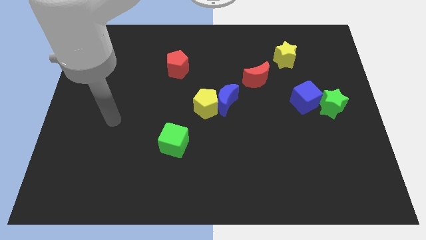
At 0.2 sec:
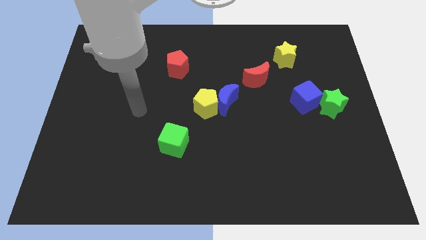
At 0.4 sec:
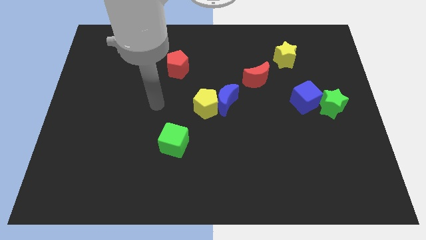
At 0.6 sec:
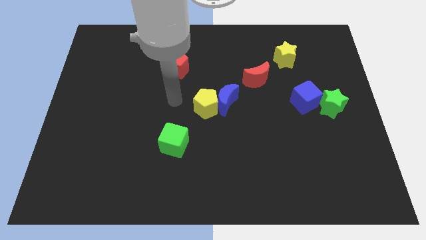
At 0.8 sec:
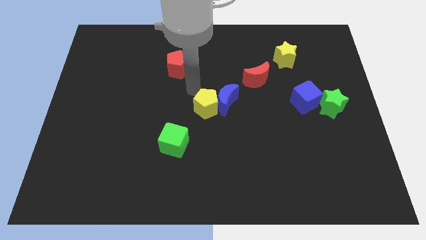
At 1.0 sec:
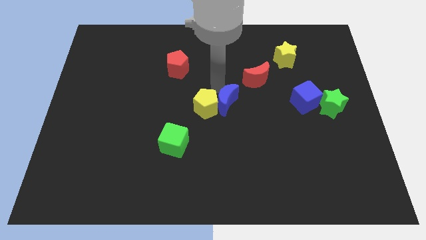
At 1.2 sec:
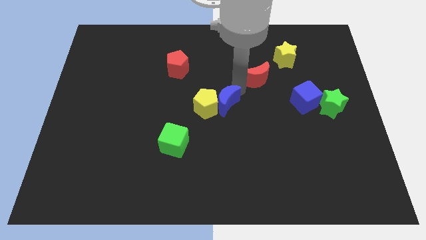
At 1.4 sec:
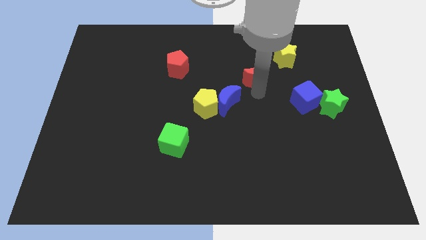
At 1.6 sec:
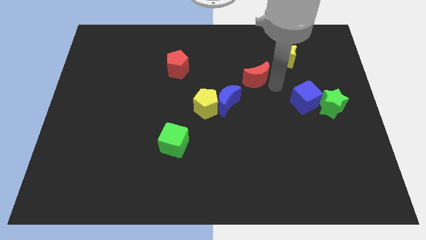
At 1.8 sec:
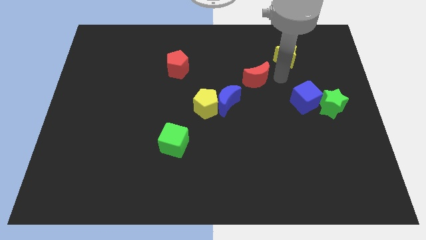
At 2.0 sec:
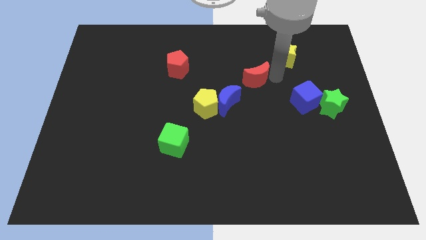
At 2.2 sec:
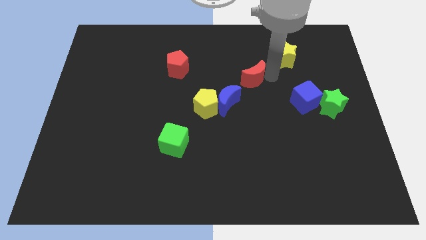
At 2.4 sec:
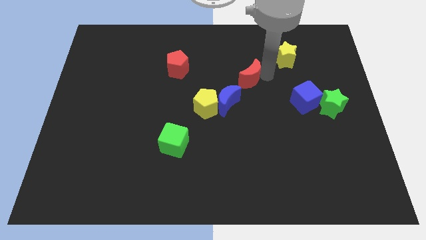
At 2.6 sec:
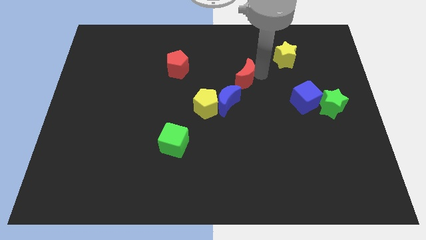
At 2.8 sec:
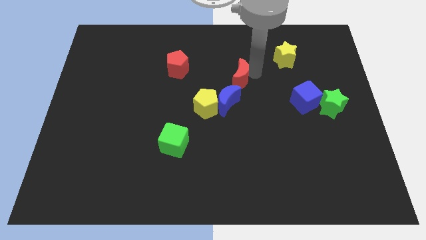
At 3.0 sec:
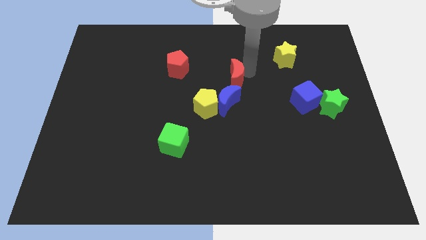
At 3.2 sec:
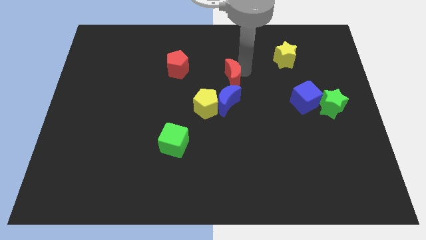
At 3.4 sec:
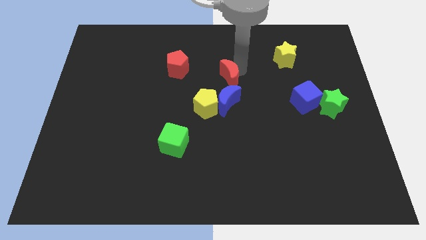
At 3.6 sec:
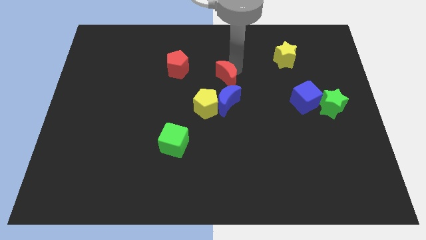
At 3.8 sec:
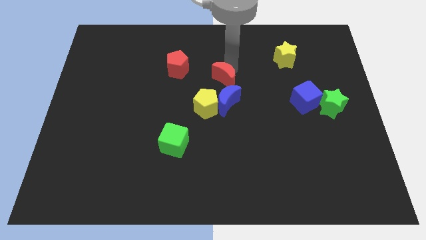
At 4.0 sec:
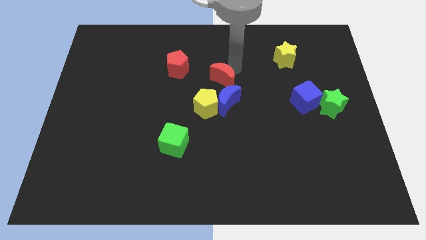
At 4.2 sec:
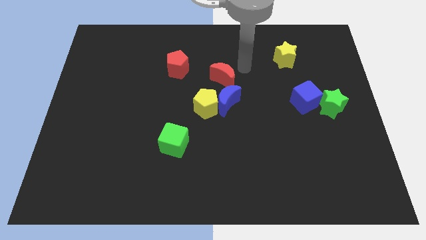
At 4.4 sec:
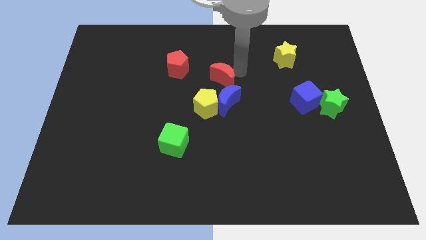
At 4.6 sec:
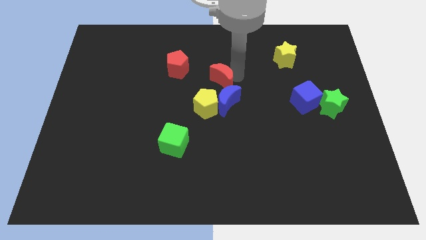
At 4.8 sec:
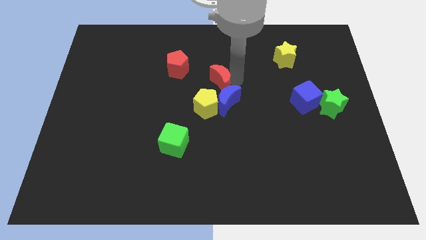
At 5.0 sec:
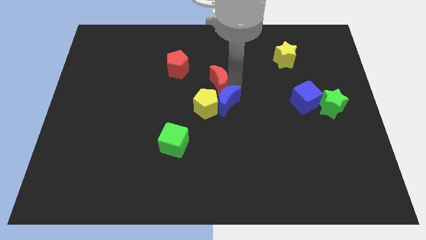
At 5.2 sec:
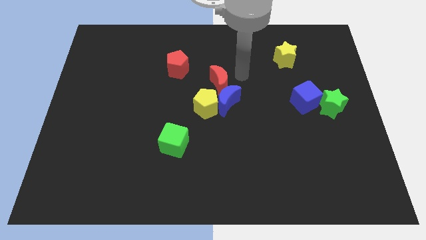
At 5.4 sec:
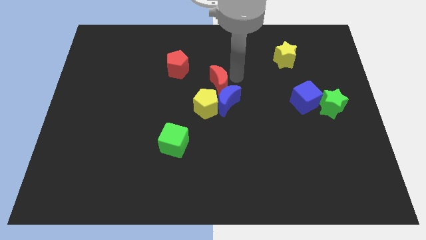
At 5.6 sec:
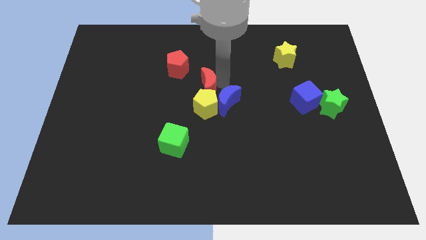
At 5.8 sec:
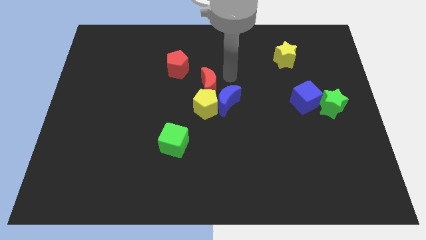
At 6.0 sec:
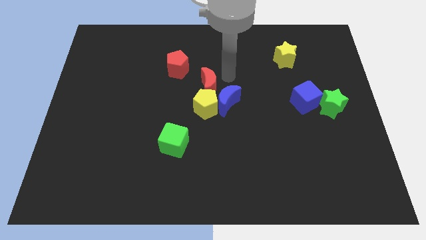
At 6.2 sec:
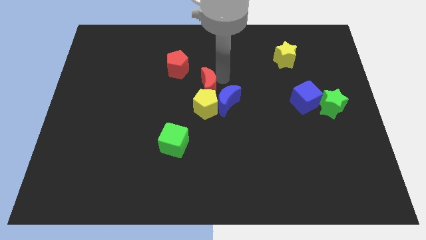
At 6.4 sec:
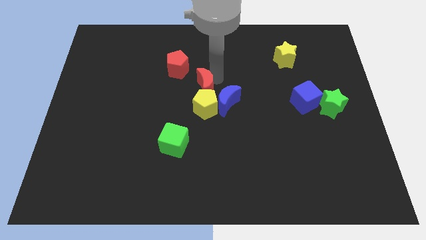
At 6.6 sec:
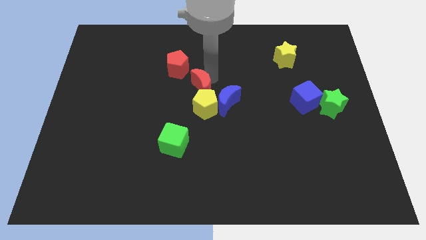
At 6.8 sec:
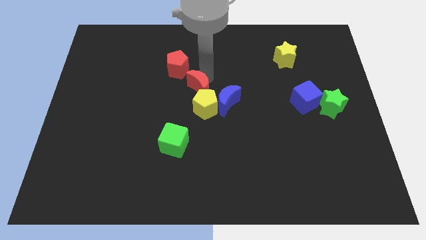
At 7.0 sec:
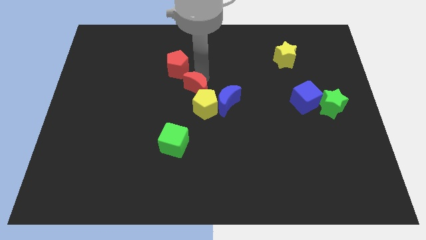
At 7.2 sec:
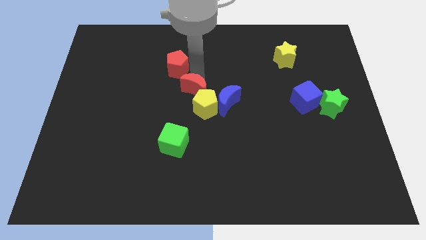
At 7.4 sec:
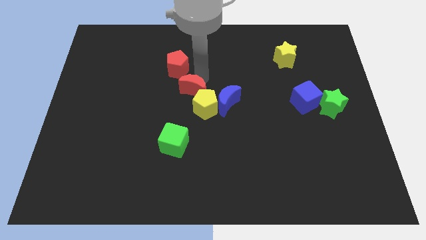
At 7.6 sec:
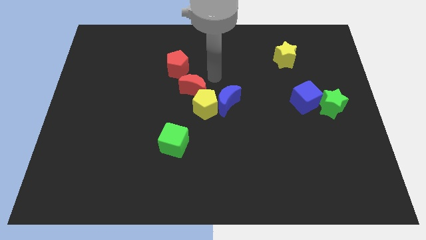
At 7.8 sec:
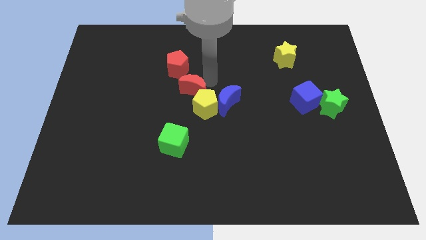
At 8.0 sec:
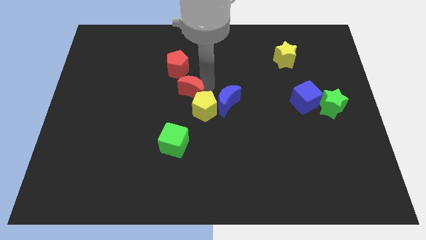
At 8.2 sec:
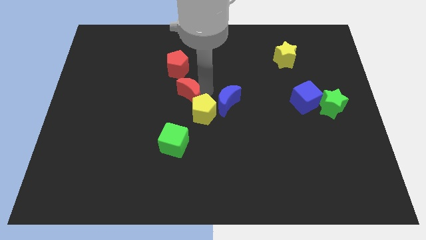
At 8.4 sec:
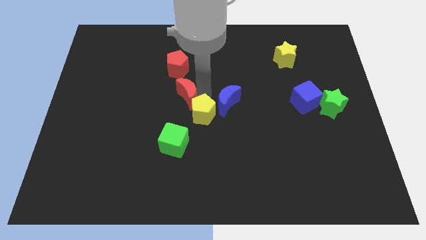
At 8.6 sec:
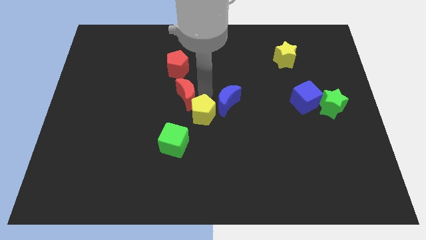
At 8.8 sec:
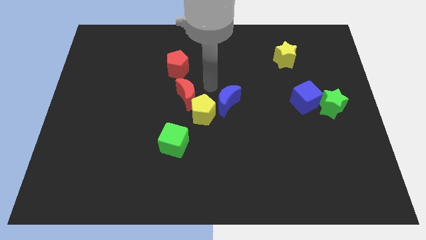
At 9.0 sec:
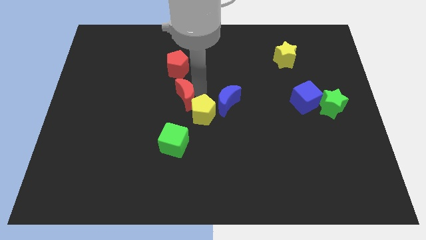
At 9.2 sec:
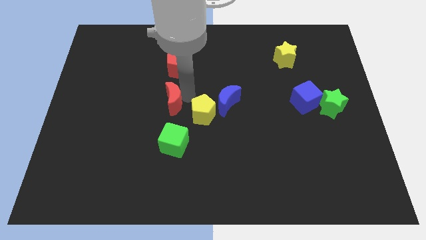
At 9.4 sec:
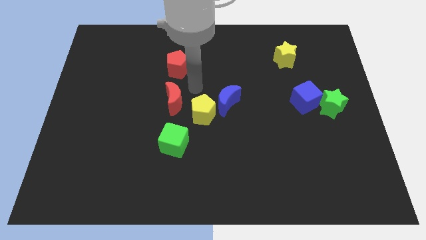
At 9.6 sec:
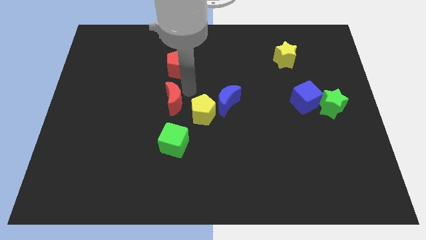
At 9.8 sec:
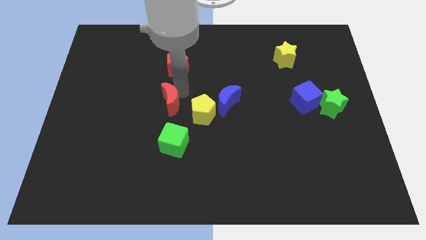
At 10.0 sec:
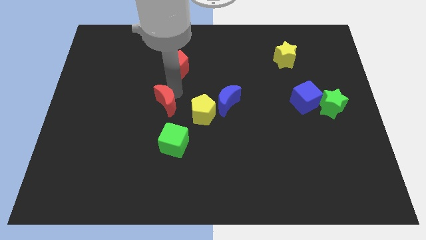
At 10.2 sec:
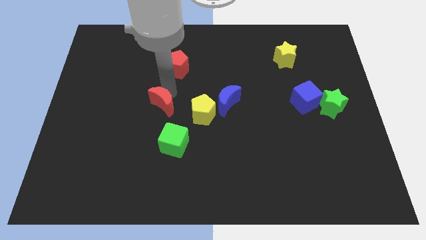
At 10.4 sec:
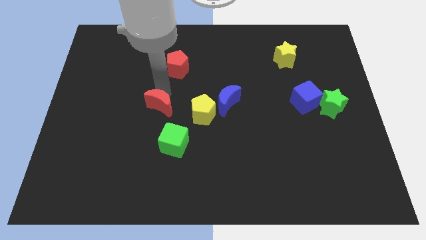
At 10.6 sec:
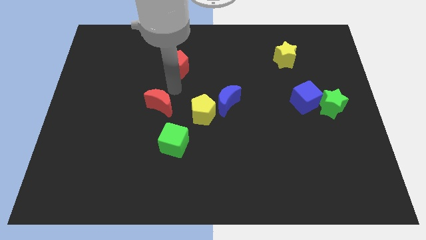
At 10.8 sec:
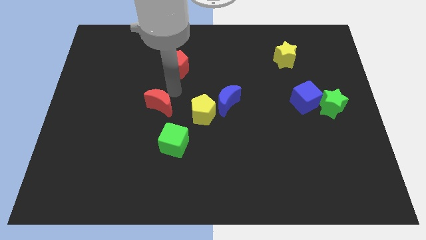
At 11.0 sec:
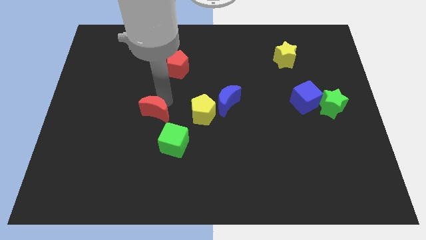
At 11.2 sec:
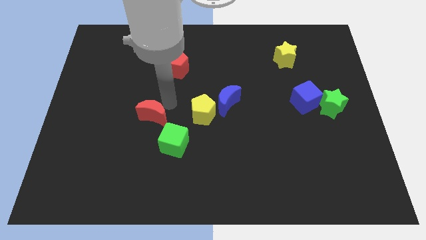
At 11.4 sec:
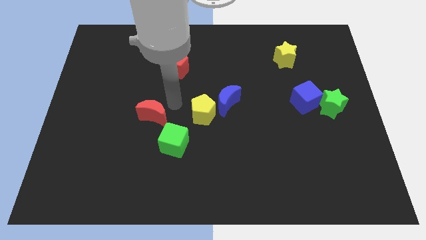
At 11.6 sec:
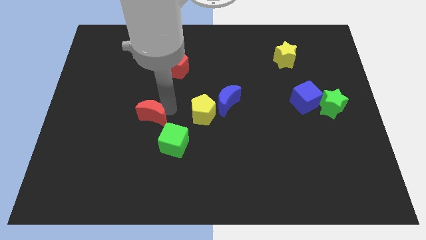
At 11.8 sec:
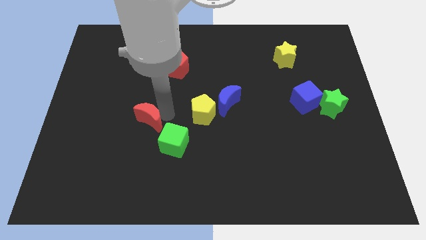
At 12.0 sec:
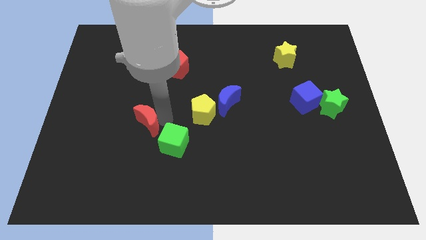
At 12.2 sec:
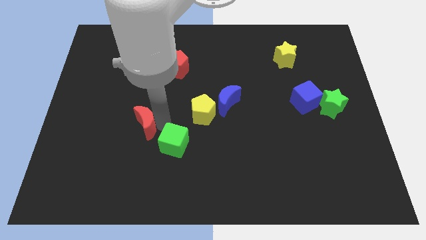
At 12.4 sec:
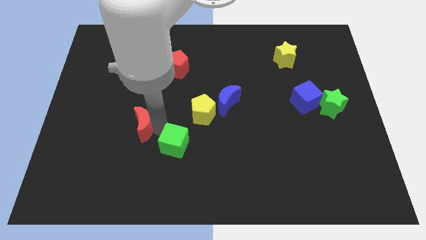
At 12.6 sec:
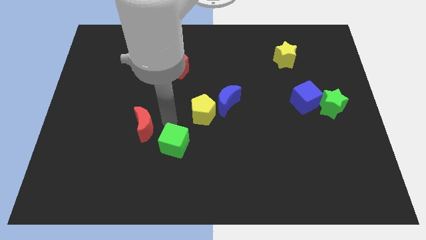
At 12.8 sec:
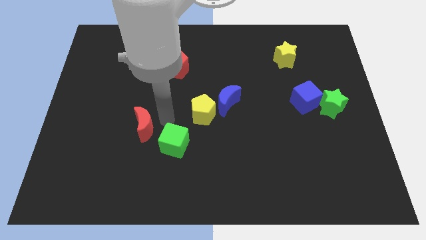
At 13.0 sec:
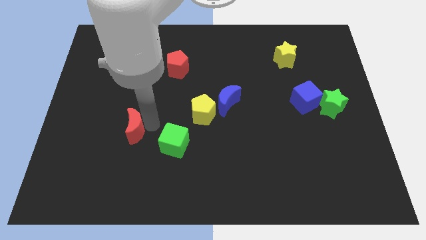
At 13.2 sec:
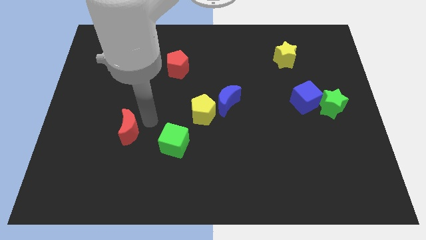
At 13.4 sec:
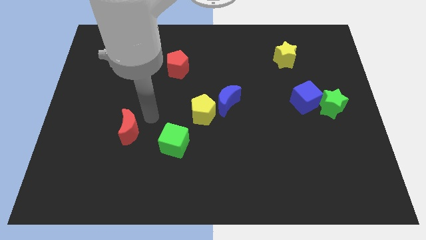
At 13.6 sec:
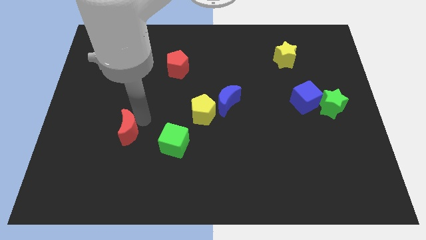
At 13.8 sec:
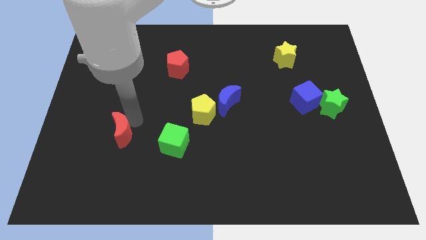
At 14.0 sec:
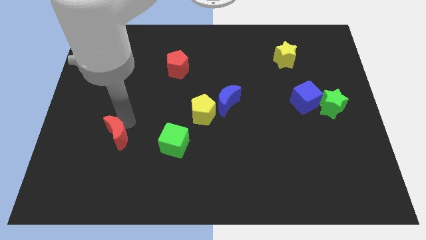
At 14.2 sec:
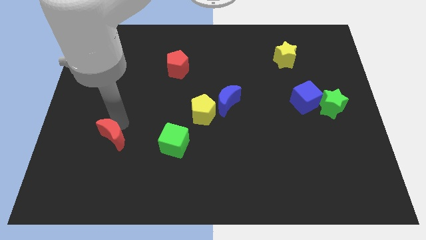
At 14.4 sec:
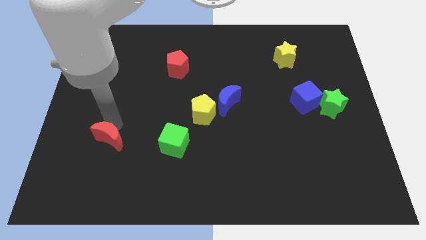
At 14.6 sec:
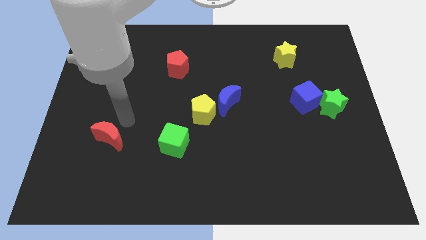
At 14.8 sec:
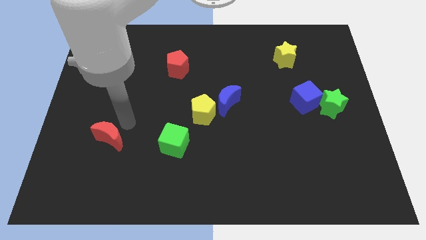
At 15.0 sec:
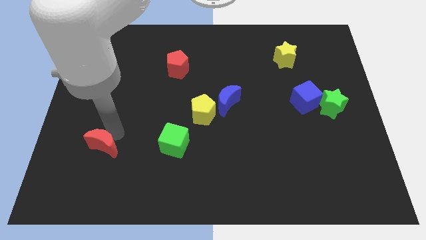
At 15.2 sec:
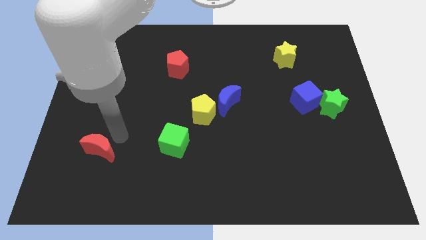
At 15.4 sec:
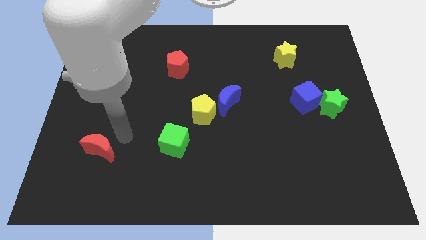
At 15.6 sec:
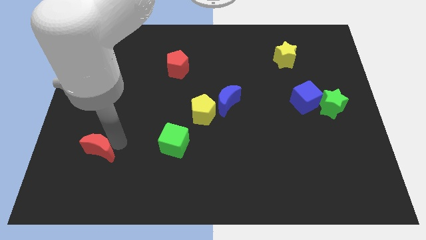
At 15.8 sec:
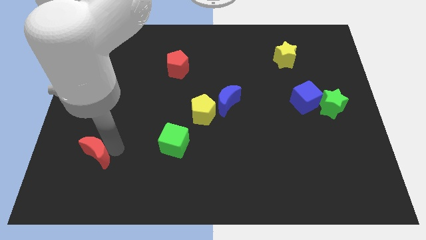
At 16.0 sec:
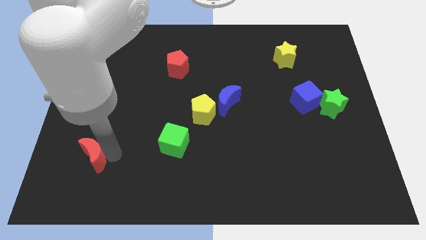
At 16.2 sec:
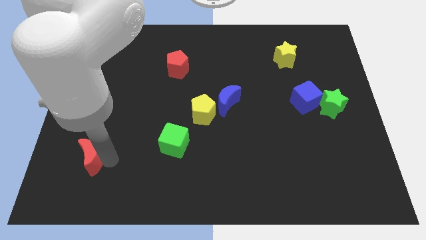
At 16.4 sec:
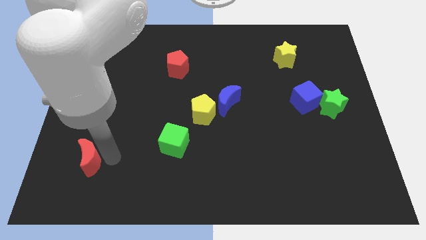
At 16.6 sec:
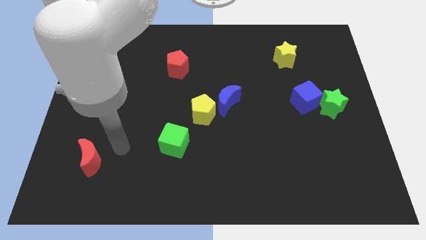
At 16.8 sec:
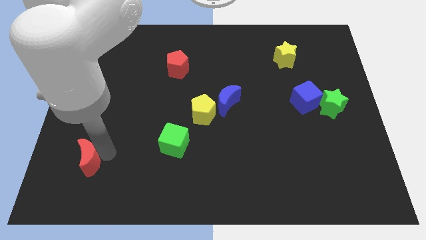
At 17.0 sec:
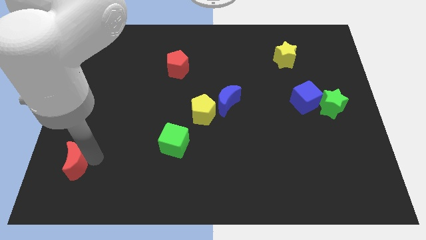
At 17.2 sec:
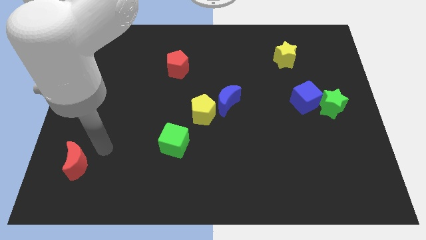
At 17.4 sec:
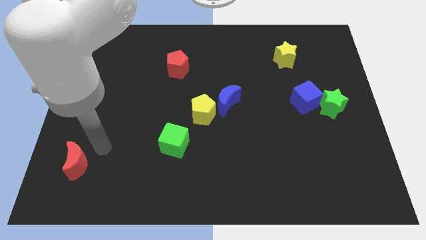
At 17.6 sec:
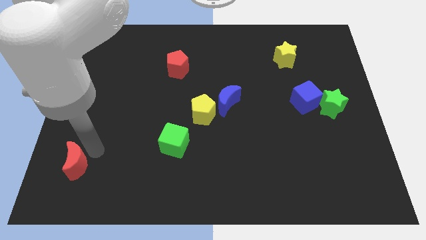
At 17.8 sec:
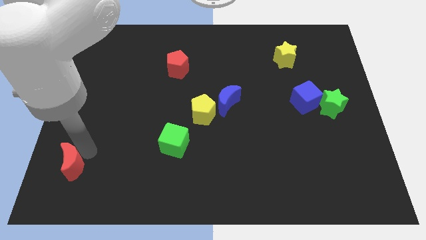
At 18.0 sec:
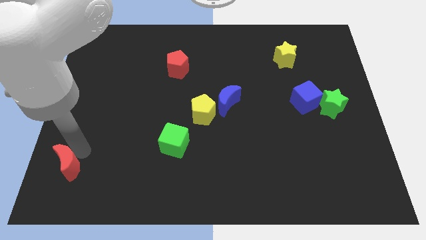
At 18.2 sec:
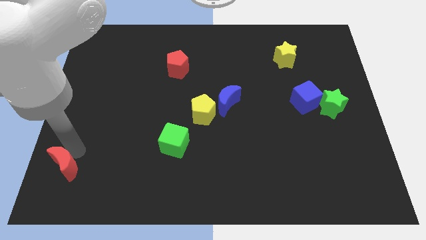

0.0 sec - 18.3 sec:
put the red moon to the bottom left corner
